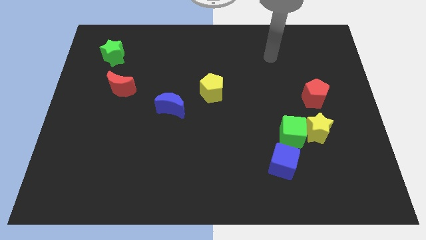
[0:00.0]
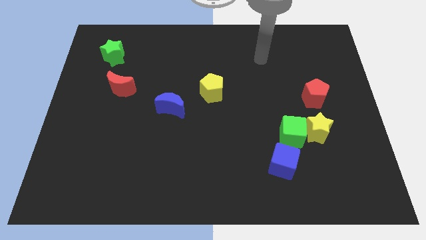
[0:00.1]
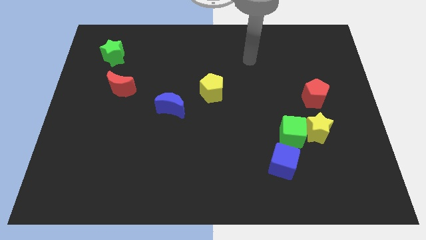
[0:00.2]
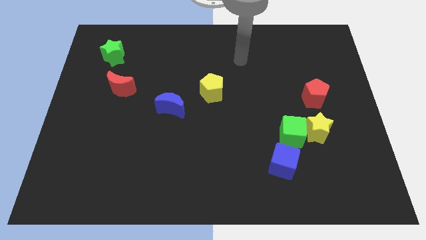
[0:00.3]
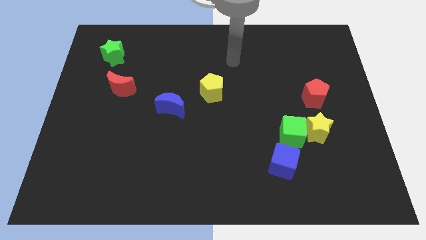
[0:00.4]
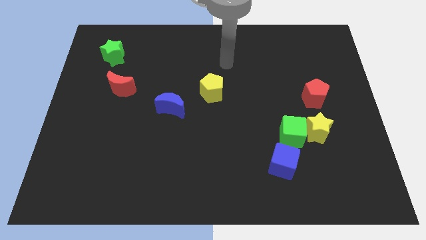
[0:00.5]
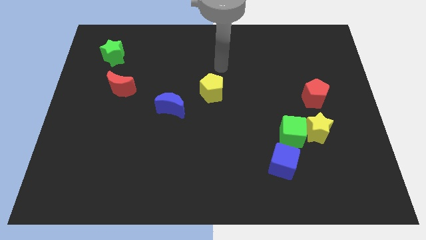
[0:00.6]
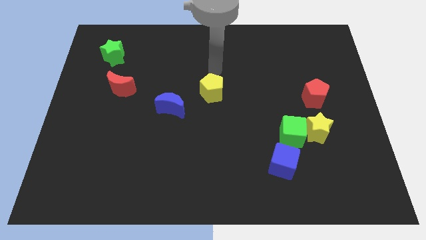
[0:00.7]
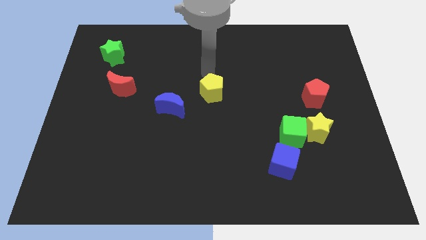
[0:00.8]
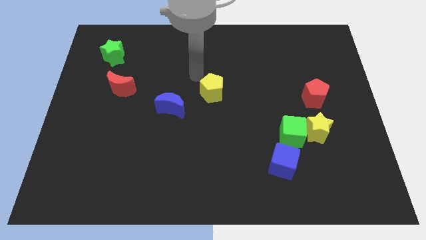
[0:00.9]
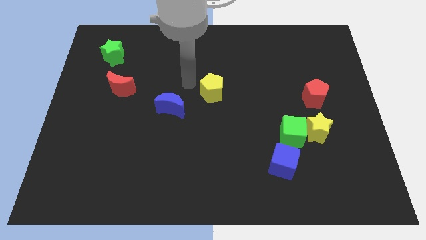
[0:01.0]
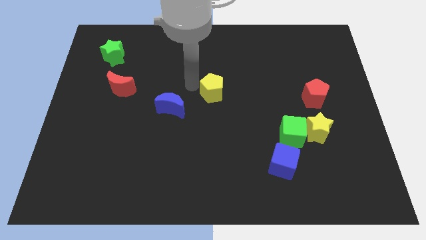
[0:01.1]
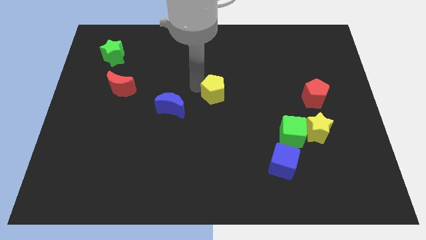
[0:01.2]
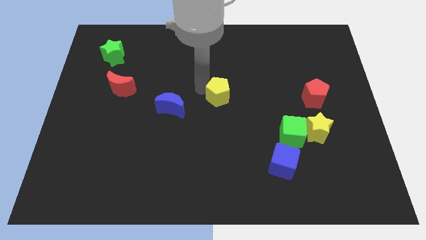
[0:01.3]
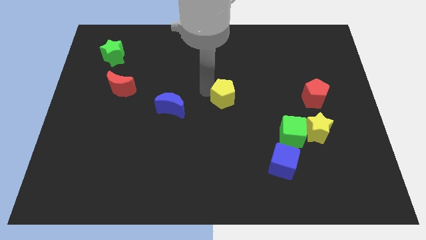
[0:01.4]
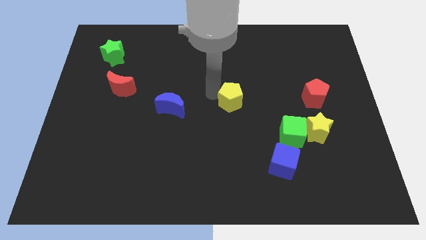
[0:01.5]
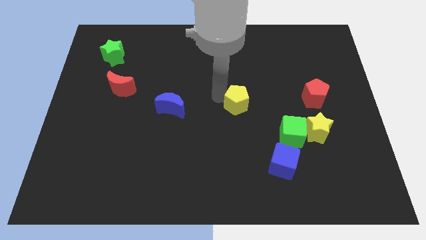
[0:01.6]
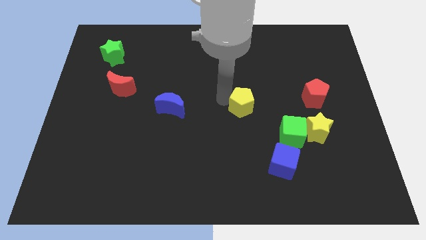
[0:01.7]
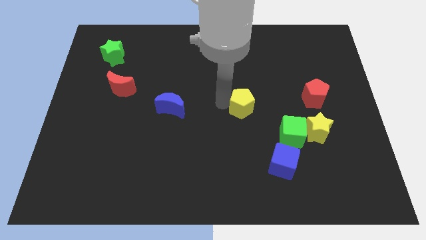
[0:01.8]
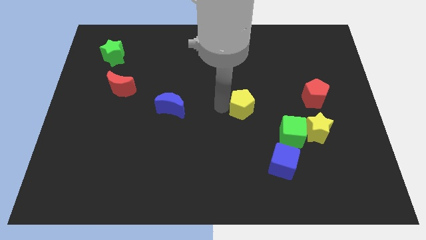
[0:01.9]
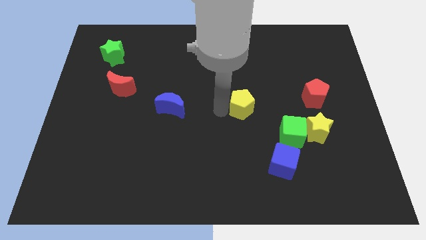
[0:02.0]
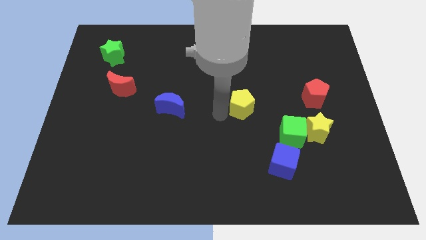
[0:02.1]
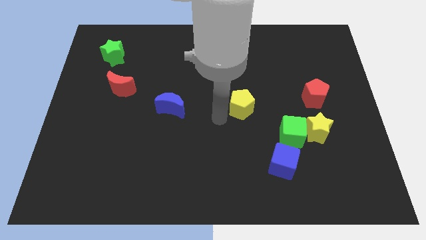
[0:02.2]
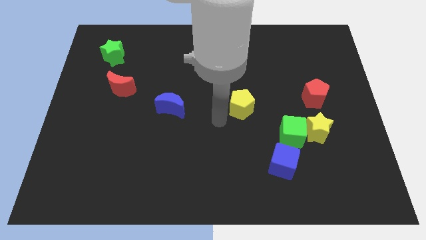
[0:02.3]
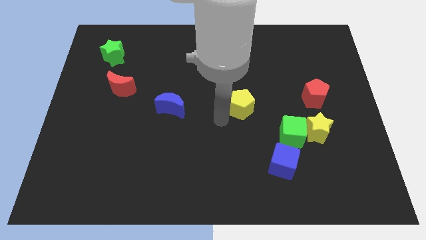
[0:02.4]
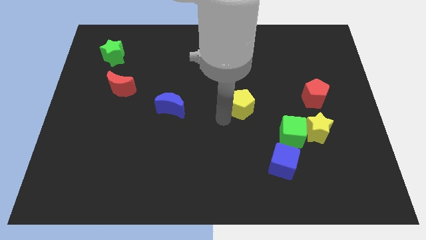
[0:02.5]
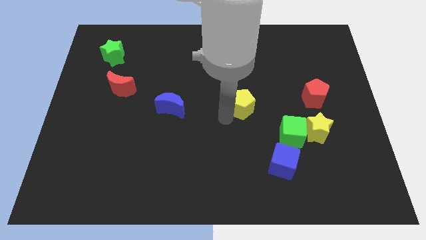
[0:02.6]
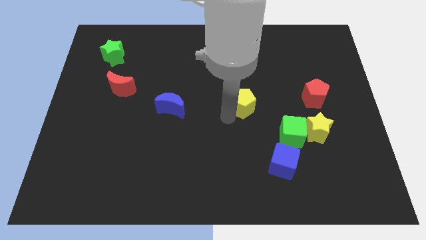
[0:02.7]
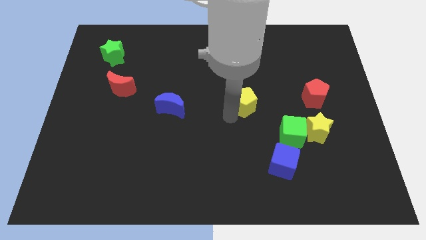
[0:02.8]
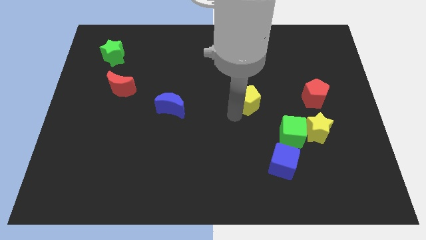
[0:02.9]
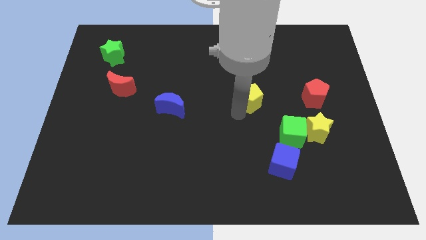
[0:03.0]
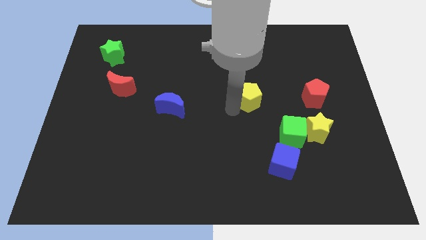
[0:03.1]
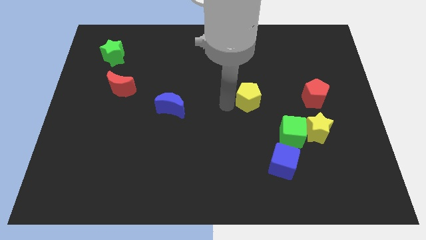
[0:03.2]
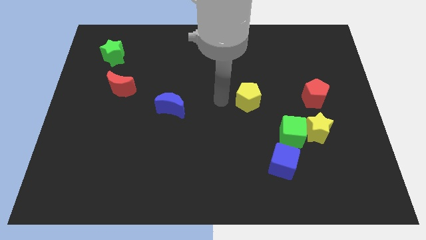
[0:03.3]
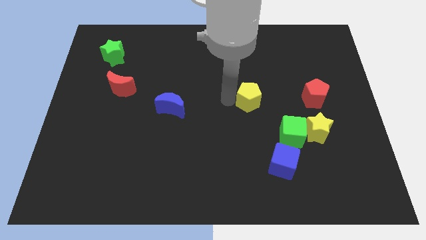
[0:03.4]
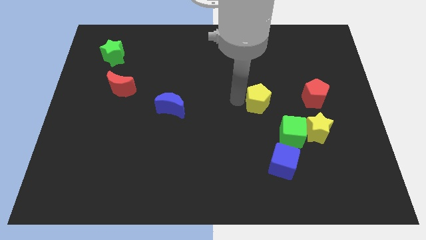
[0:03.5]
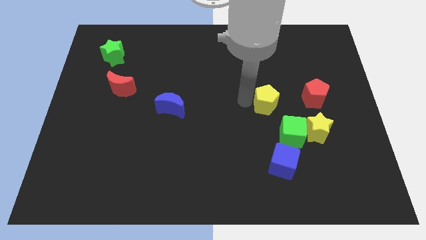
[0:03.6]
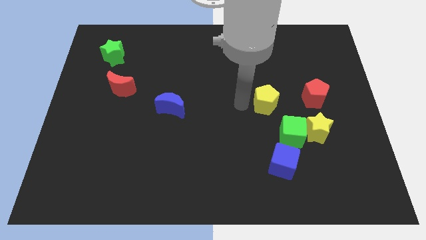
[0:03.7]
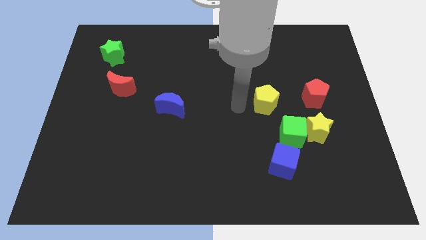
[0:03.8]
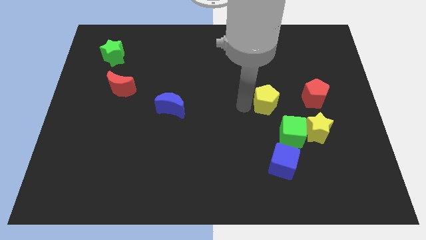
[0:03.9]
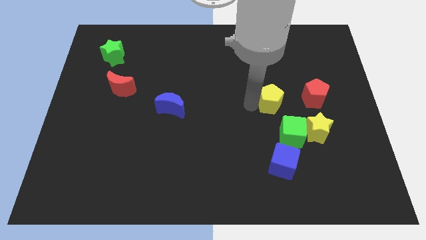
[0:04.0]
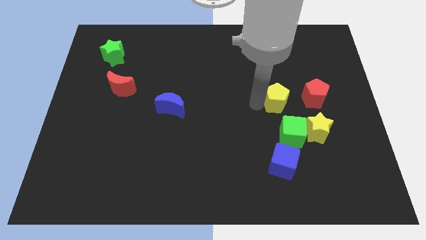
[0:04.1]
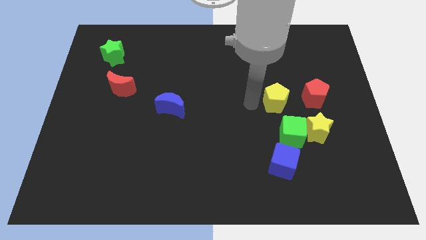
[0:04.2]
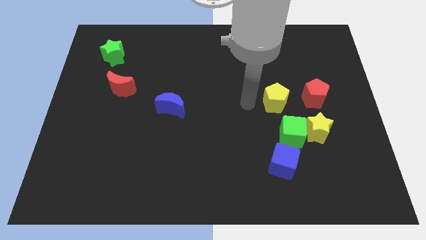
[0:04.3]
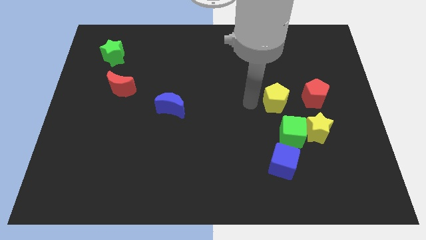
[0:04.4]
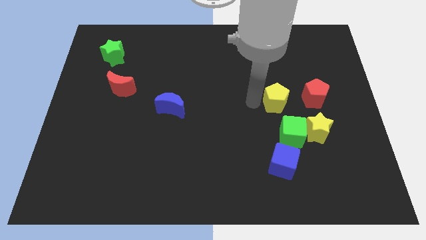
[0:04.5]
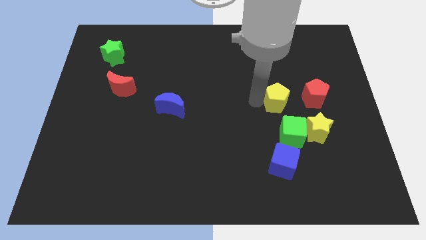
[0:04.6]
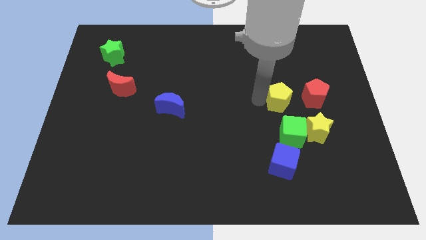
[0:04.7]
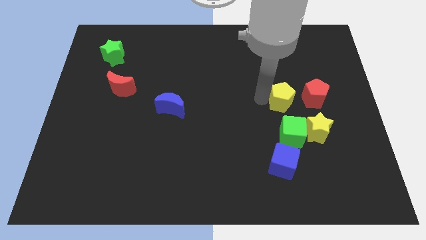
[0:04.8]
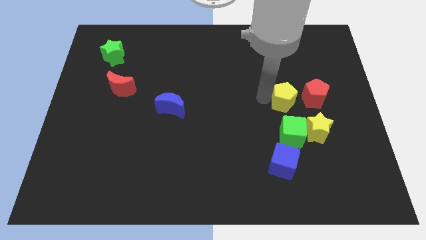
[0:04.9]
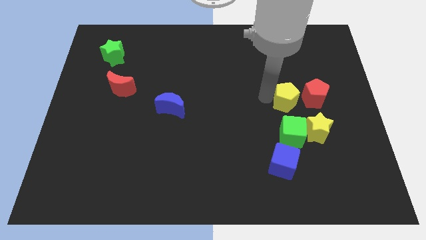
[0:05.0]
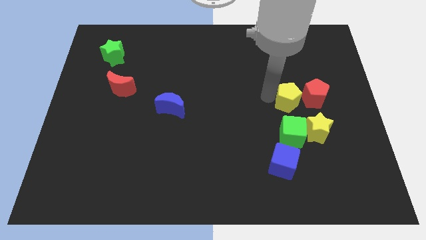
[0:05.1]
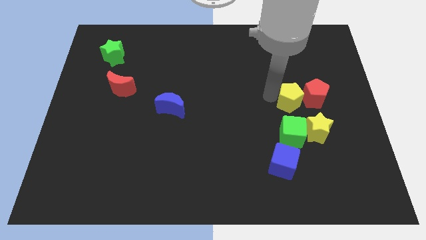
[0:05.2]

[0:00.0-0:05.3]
slide the yellow pentagon close to the red pentagon

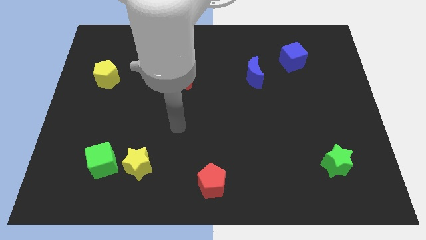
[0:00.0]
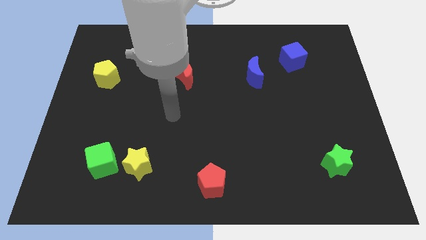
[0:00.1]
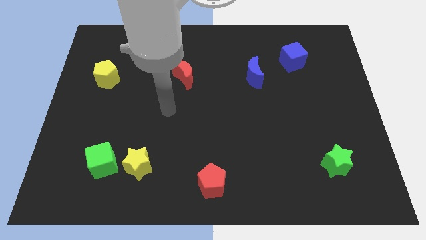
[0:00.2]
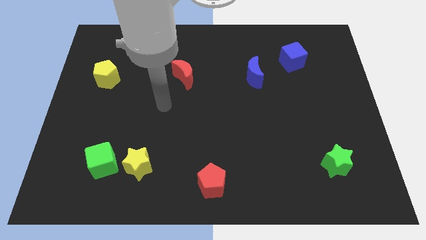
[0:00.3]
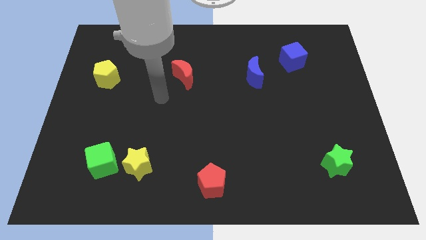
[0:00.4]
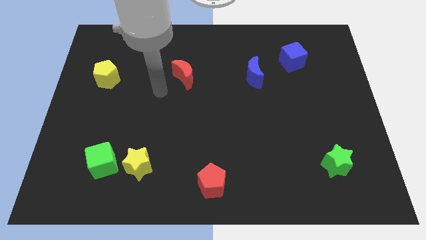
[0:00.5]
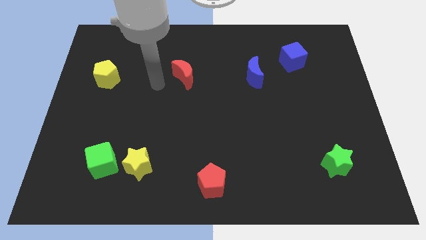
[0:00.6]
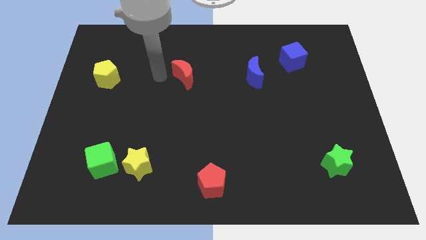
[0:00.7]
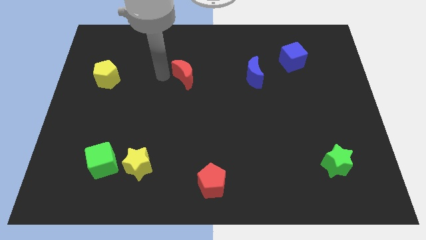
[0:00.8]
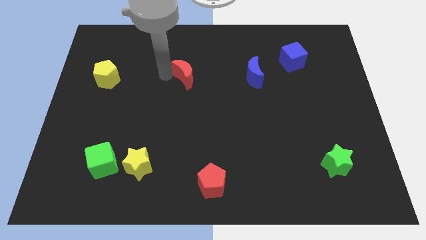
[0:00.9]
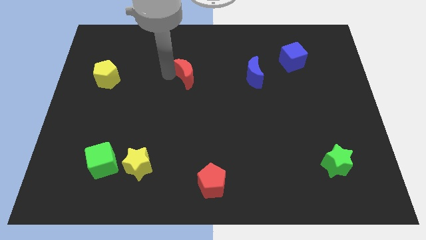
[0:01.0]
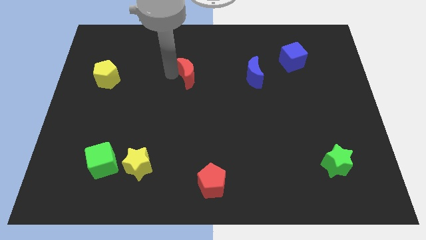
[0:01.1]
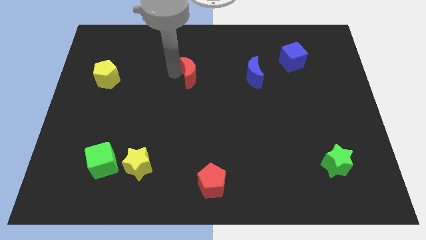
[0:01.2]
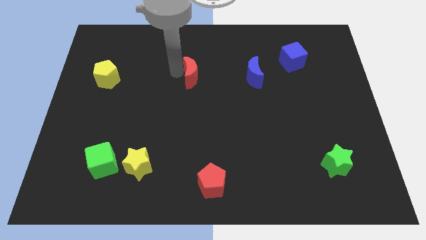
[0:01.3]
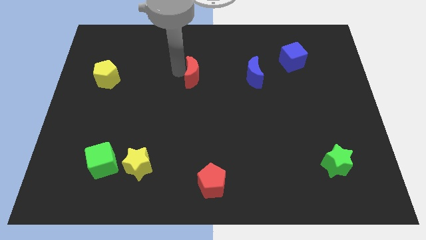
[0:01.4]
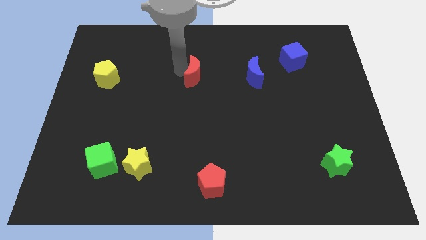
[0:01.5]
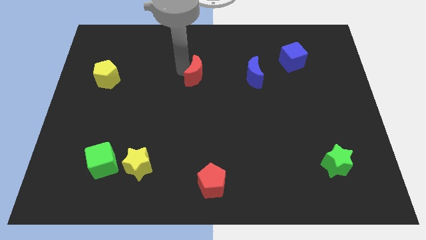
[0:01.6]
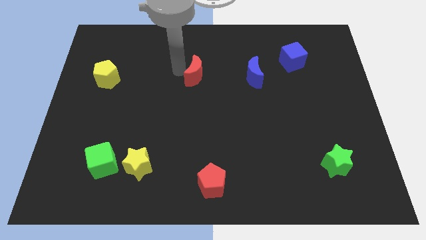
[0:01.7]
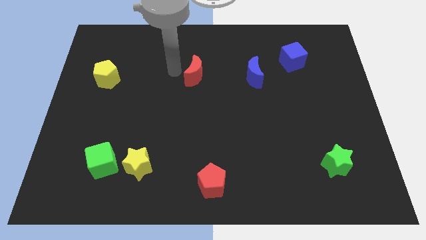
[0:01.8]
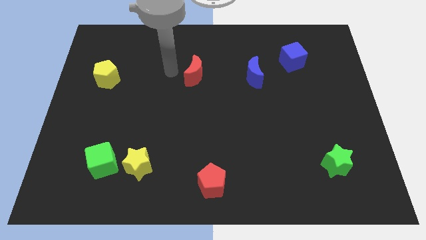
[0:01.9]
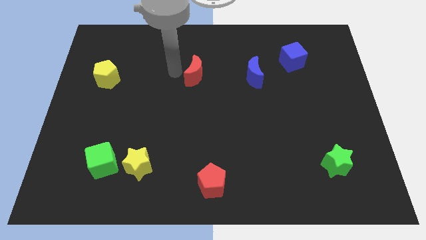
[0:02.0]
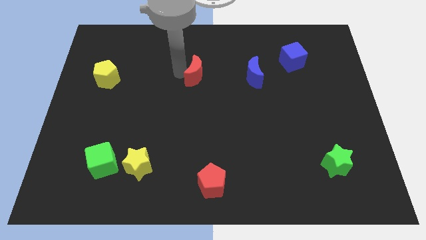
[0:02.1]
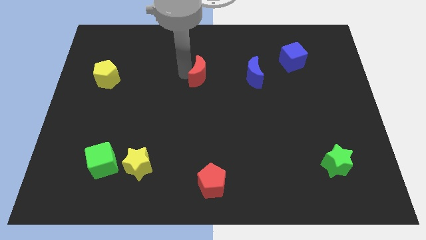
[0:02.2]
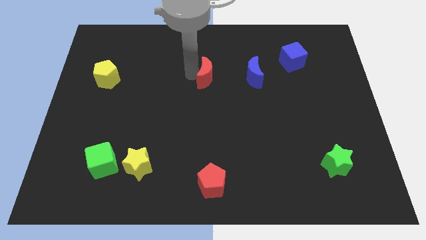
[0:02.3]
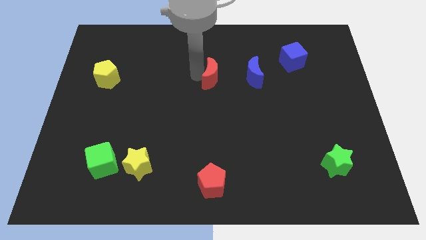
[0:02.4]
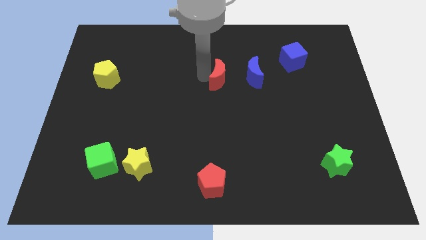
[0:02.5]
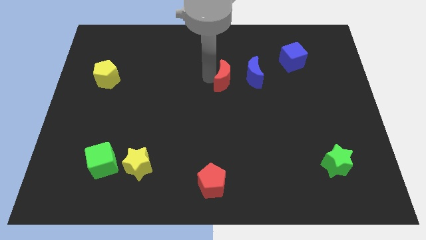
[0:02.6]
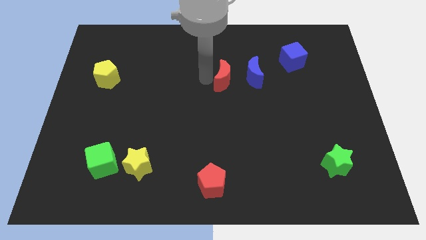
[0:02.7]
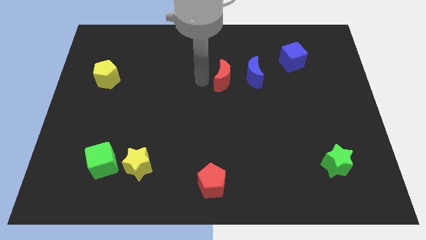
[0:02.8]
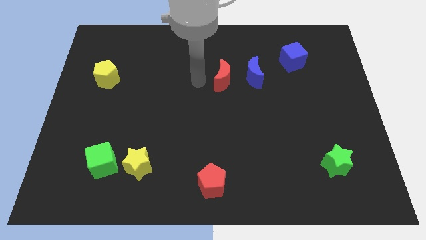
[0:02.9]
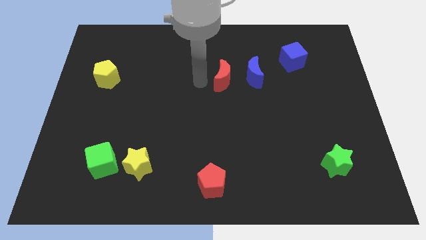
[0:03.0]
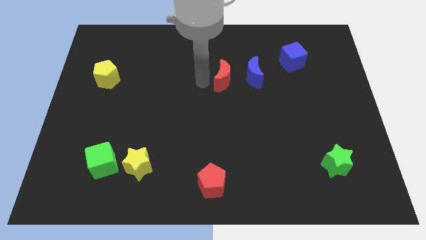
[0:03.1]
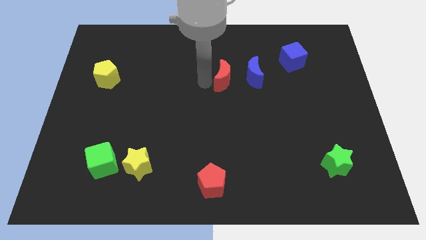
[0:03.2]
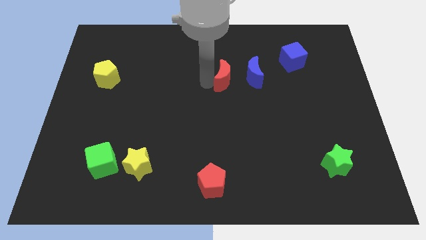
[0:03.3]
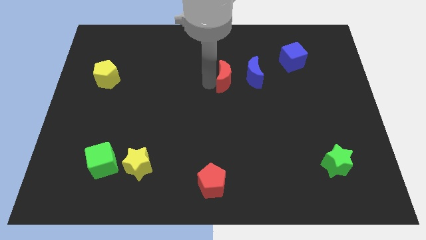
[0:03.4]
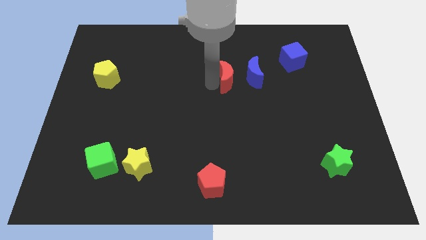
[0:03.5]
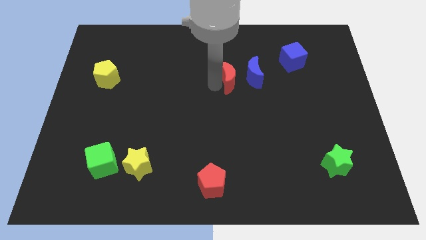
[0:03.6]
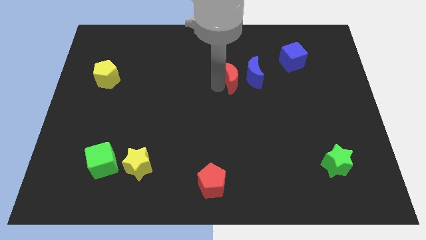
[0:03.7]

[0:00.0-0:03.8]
push the red moon towards the blue moon
